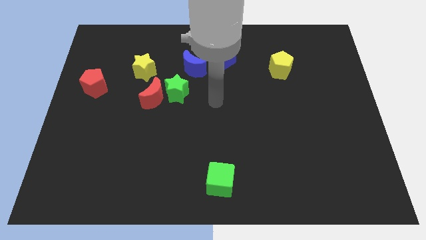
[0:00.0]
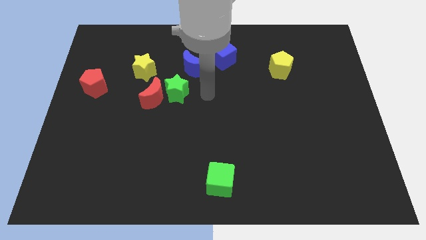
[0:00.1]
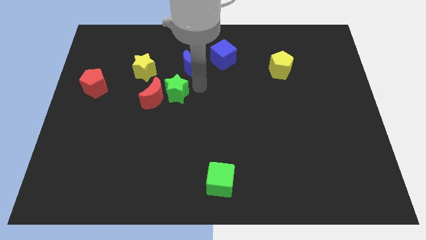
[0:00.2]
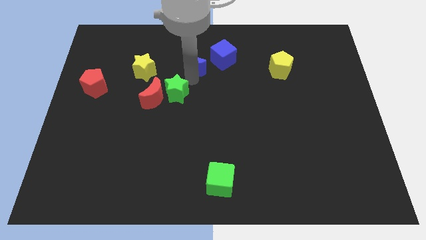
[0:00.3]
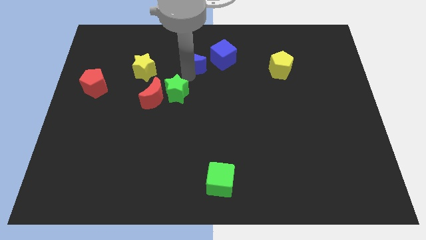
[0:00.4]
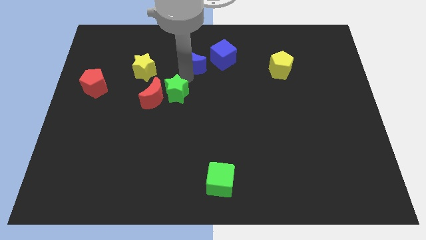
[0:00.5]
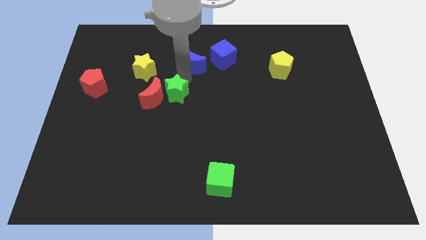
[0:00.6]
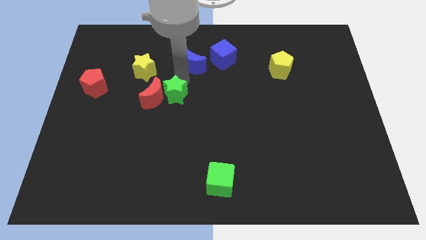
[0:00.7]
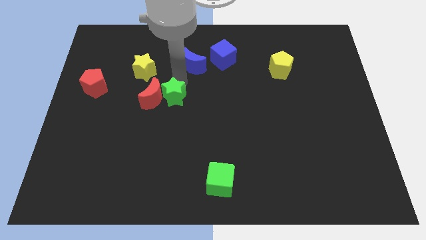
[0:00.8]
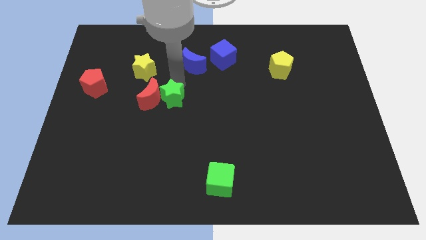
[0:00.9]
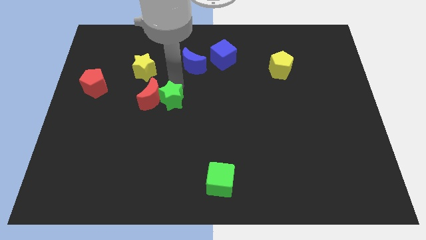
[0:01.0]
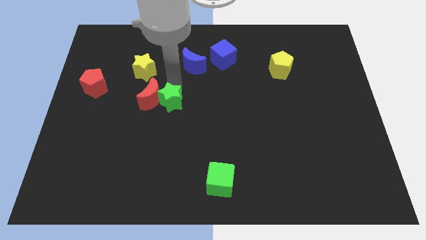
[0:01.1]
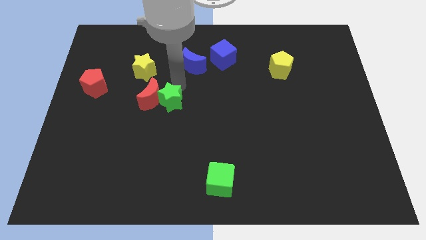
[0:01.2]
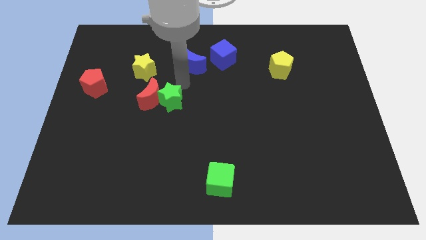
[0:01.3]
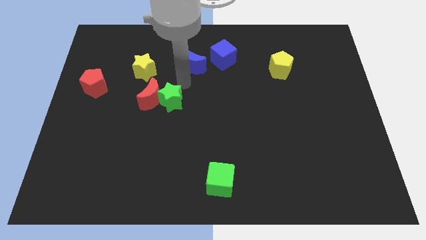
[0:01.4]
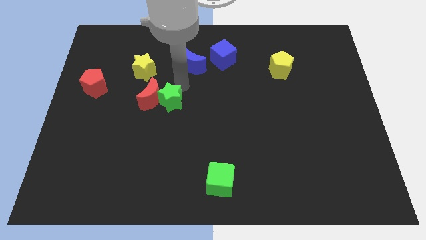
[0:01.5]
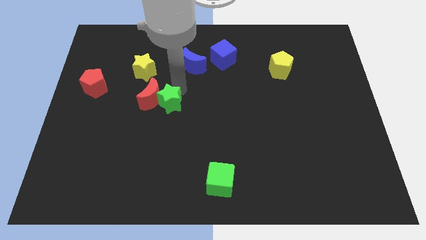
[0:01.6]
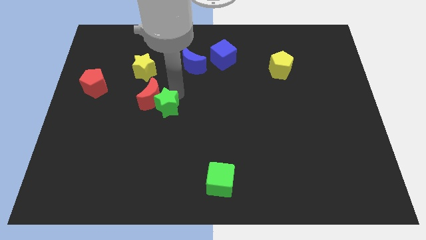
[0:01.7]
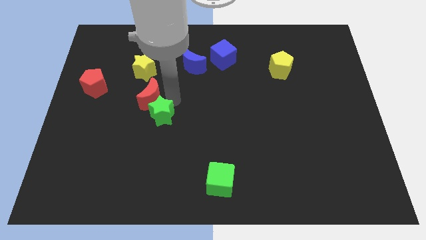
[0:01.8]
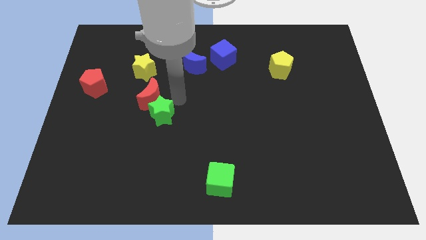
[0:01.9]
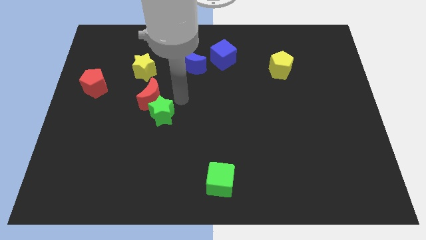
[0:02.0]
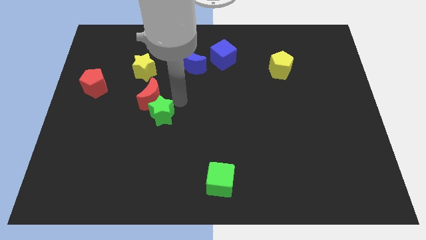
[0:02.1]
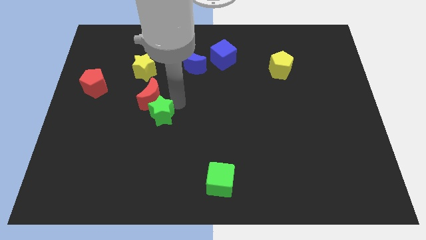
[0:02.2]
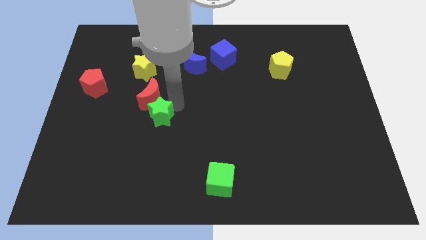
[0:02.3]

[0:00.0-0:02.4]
move the green star a little down and to the left

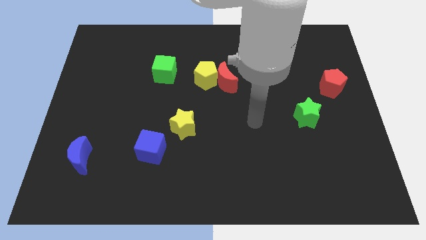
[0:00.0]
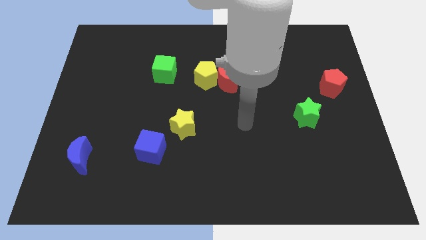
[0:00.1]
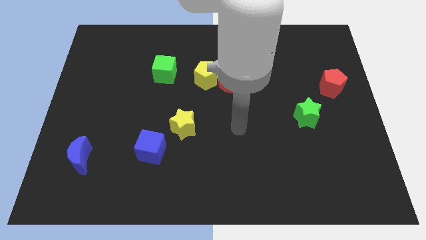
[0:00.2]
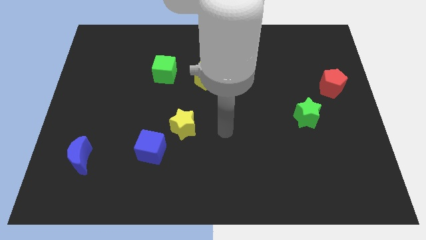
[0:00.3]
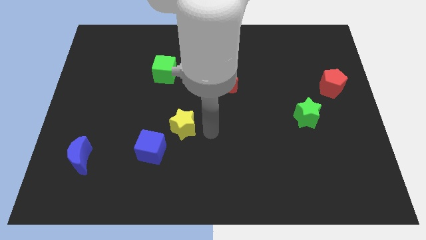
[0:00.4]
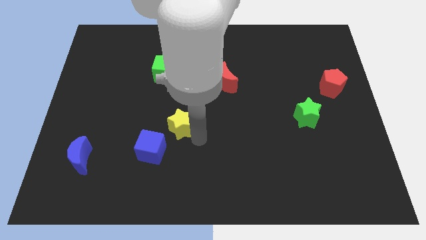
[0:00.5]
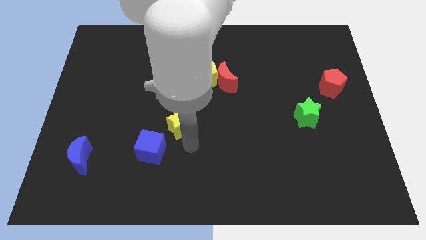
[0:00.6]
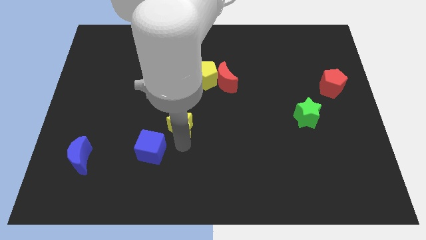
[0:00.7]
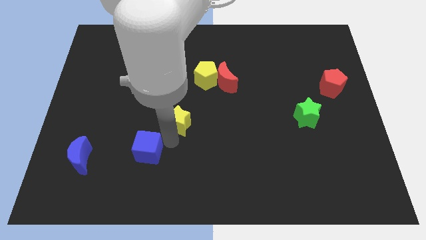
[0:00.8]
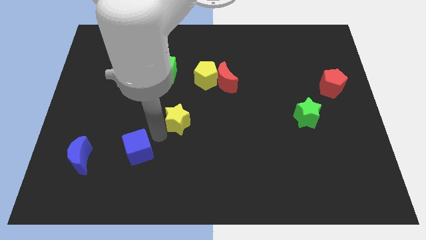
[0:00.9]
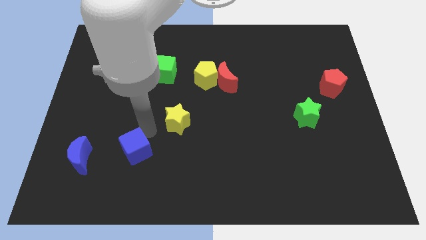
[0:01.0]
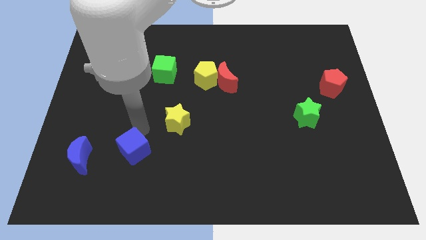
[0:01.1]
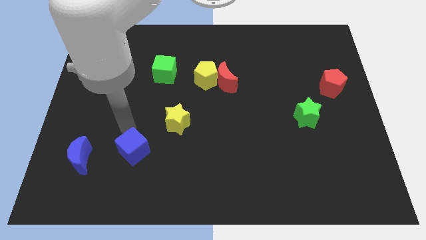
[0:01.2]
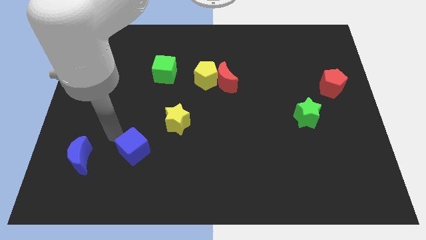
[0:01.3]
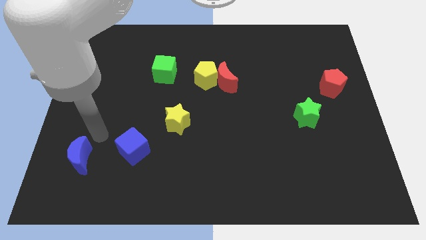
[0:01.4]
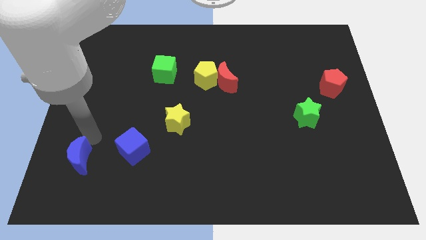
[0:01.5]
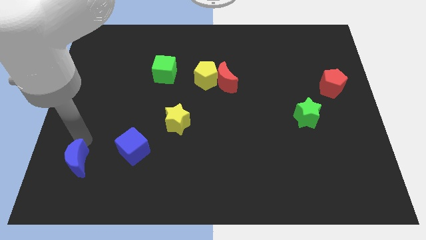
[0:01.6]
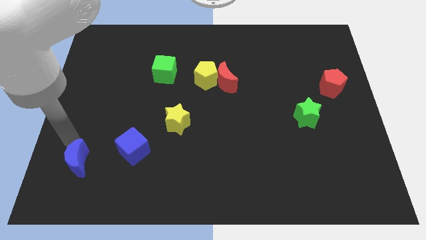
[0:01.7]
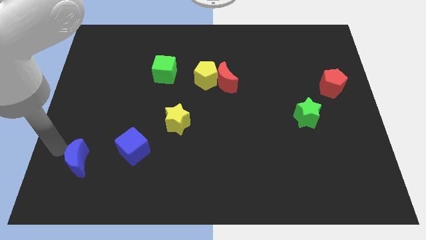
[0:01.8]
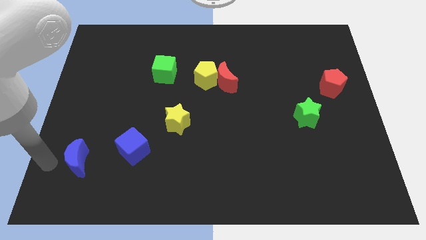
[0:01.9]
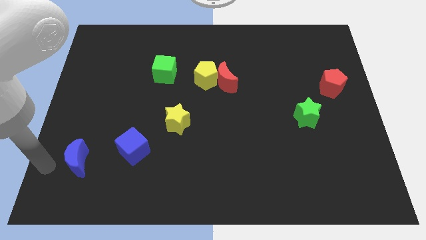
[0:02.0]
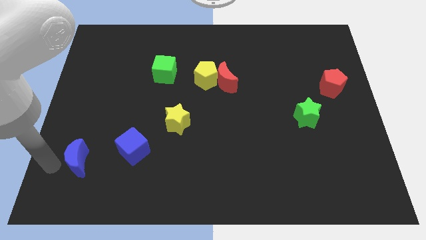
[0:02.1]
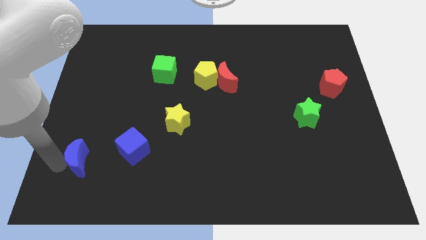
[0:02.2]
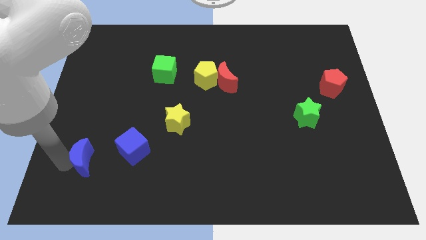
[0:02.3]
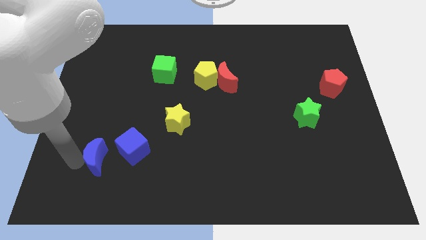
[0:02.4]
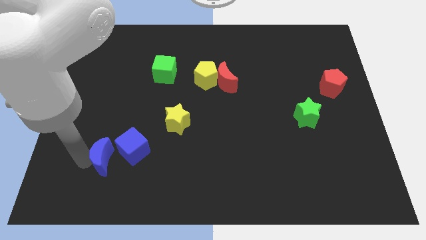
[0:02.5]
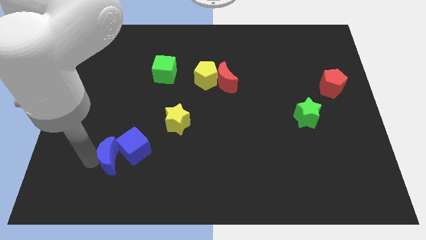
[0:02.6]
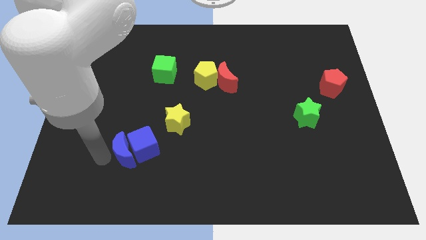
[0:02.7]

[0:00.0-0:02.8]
move the blue moon a little to the right

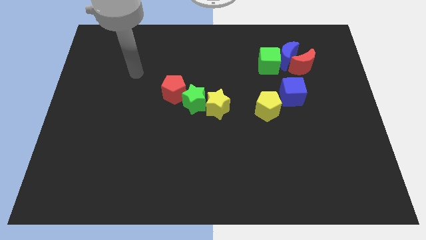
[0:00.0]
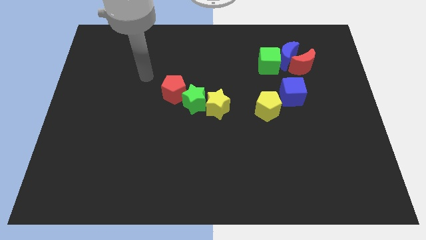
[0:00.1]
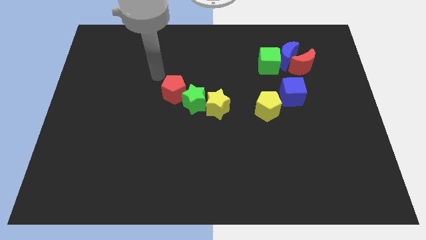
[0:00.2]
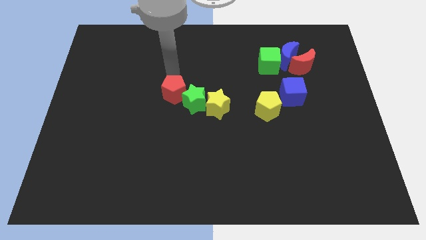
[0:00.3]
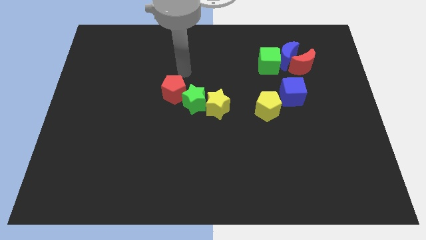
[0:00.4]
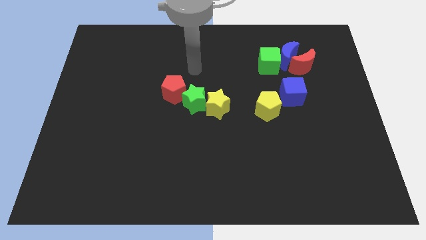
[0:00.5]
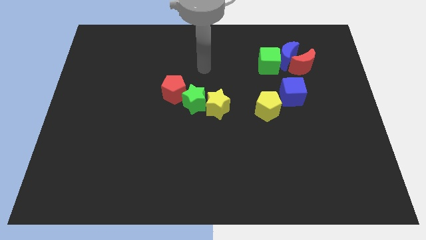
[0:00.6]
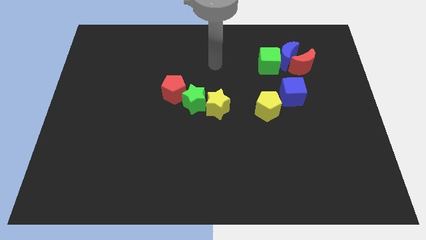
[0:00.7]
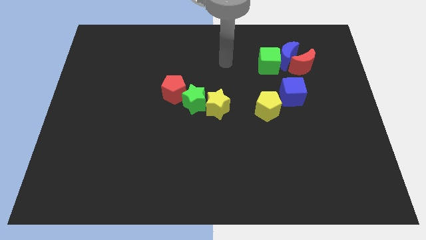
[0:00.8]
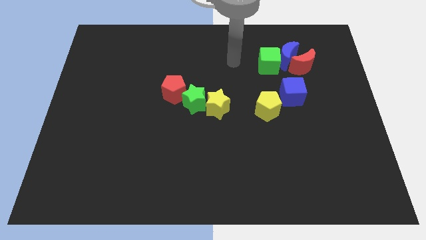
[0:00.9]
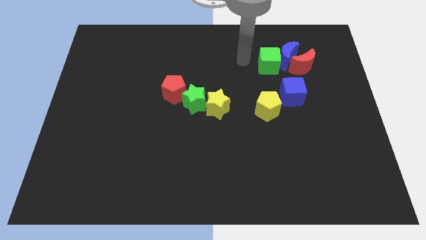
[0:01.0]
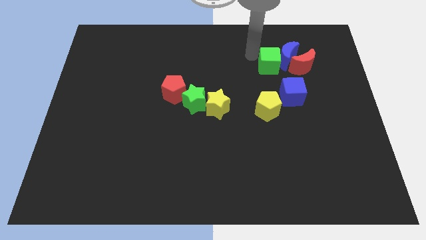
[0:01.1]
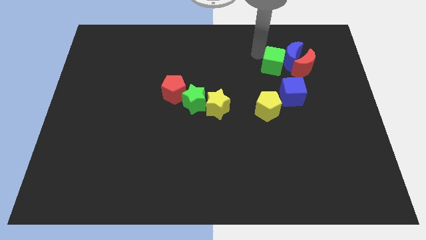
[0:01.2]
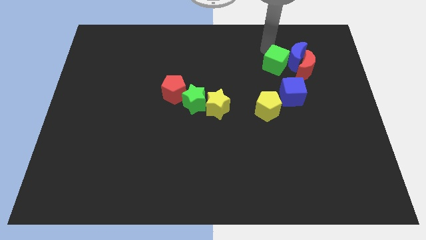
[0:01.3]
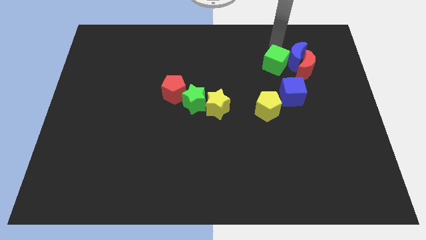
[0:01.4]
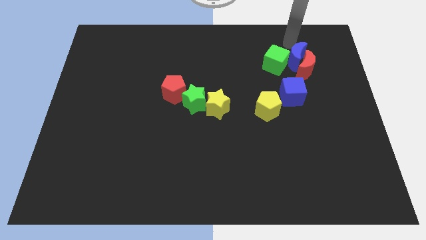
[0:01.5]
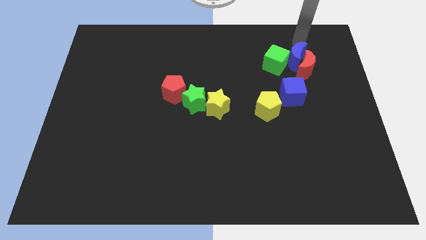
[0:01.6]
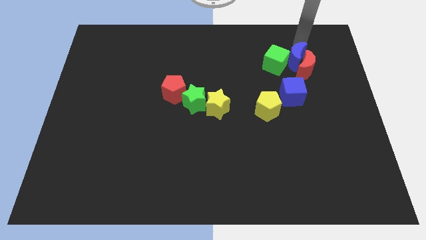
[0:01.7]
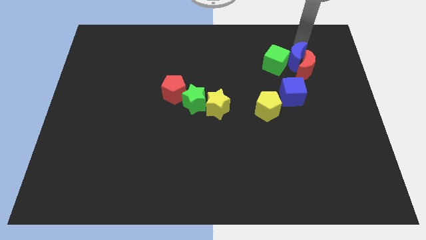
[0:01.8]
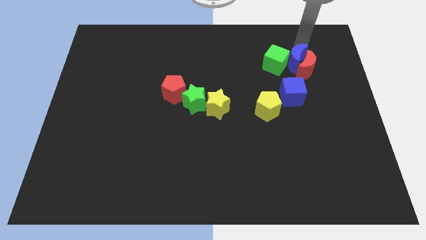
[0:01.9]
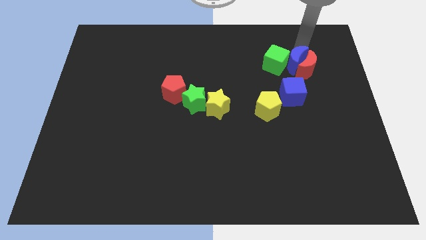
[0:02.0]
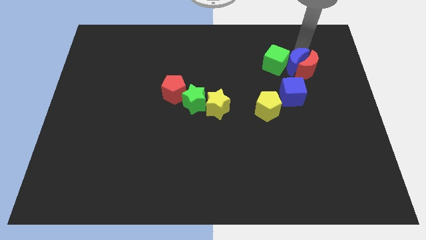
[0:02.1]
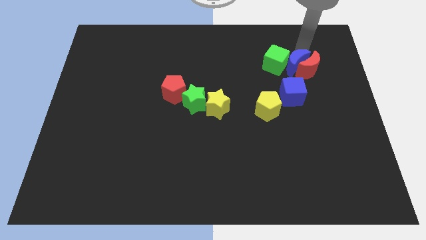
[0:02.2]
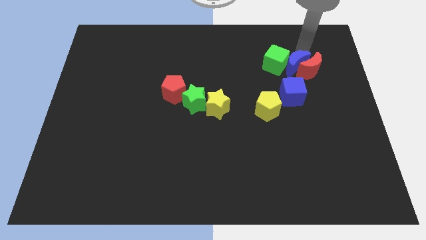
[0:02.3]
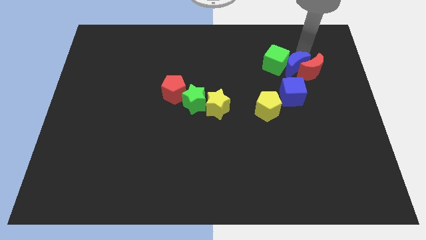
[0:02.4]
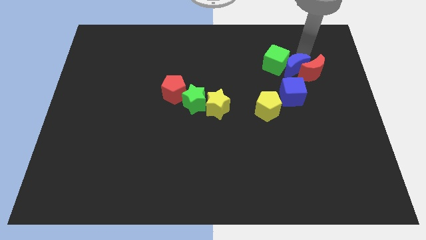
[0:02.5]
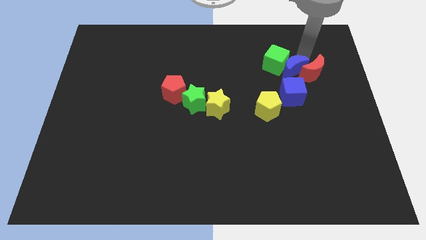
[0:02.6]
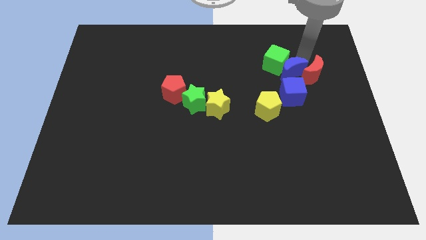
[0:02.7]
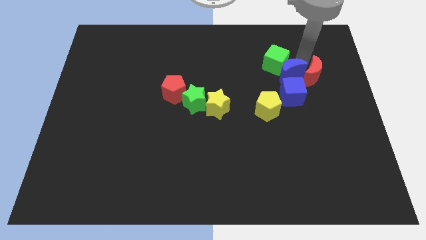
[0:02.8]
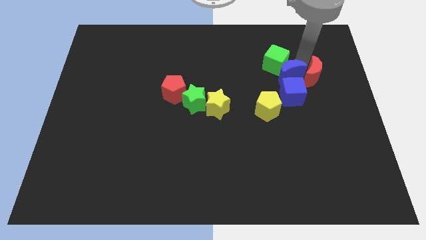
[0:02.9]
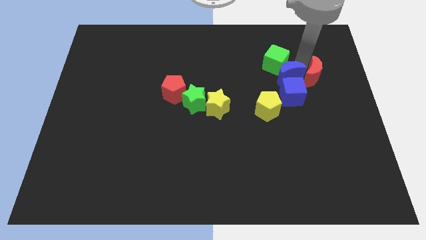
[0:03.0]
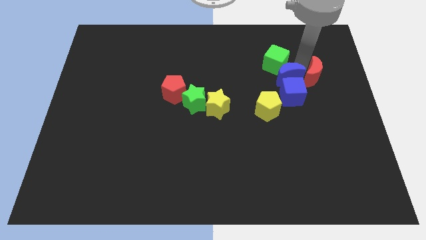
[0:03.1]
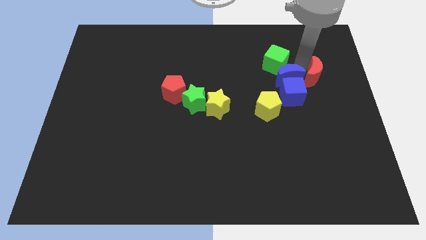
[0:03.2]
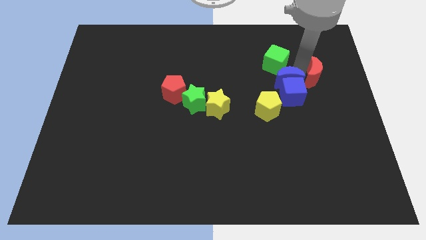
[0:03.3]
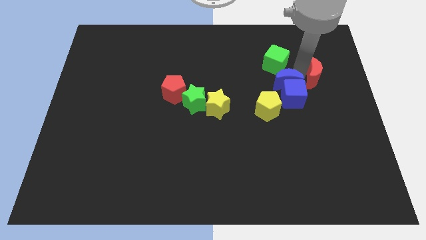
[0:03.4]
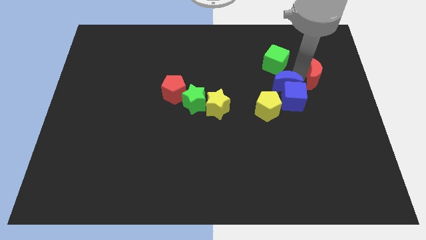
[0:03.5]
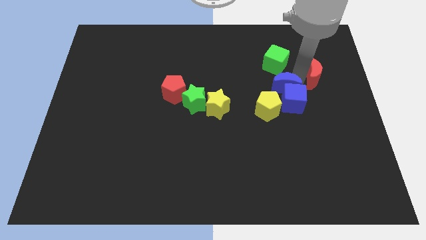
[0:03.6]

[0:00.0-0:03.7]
slightly slide the blue moon downwards and left diagonally
